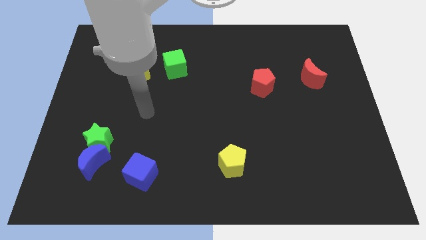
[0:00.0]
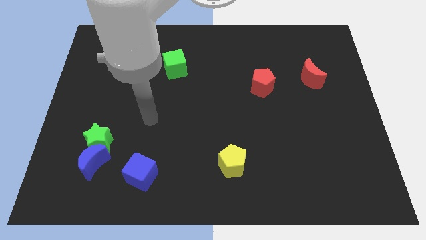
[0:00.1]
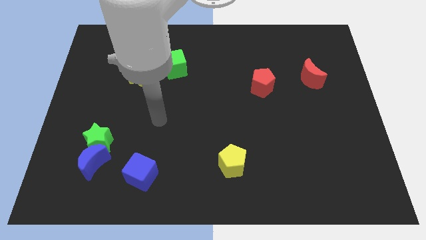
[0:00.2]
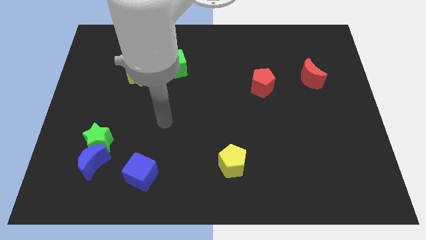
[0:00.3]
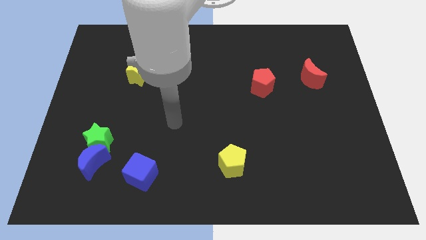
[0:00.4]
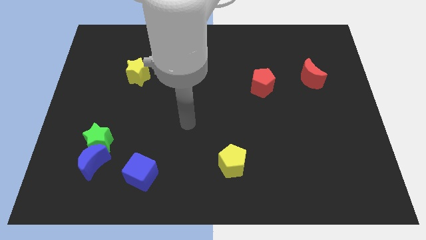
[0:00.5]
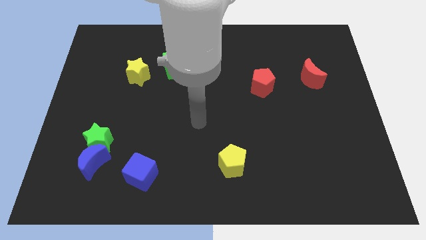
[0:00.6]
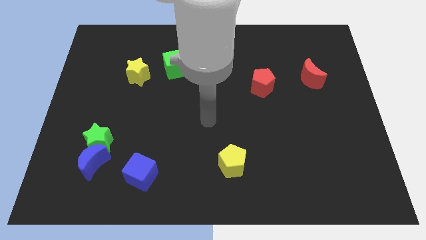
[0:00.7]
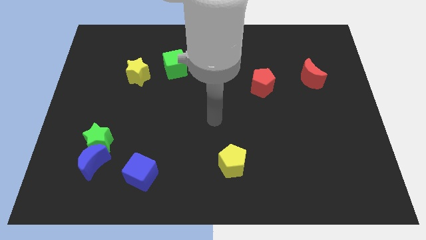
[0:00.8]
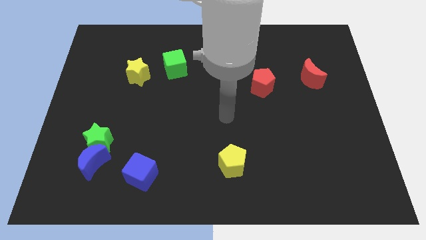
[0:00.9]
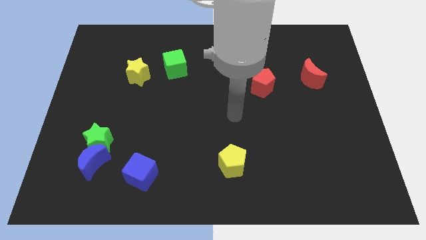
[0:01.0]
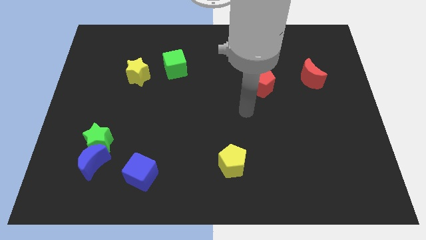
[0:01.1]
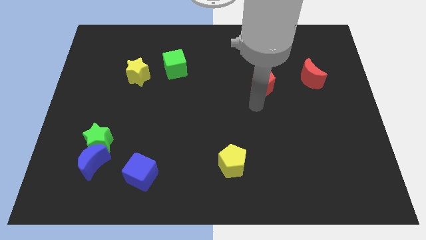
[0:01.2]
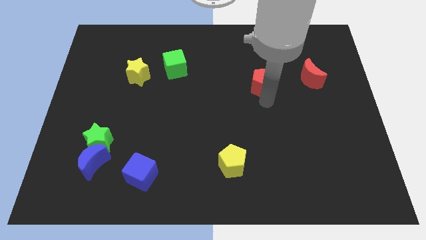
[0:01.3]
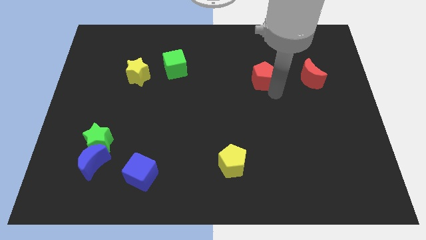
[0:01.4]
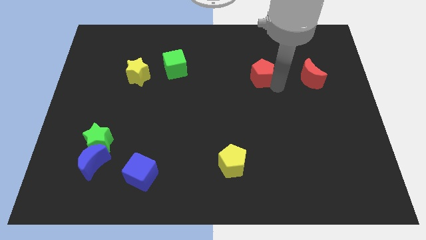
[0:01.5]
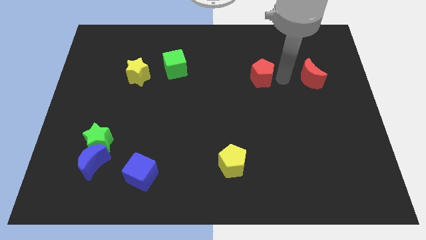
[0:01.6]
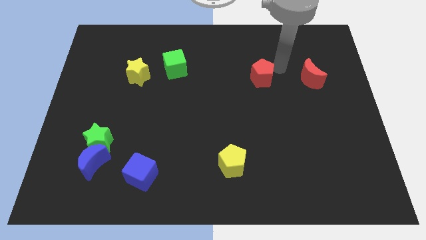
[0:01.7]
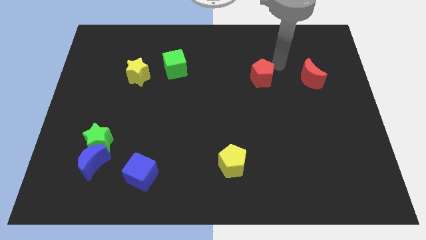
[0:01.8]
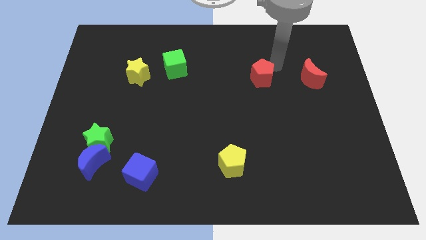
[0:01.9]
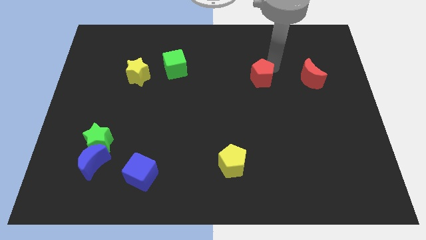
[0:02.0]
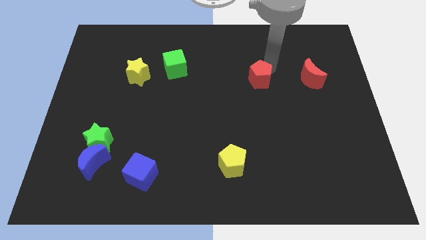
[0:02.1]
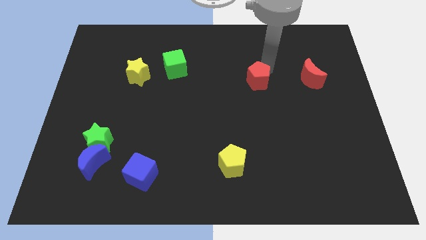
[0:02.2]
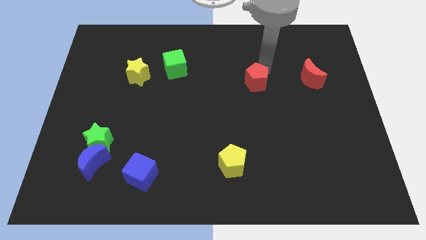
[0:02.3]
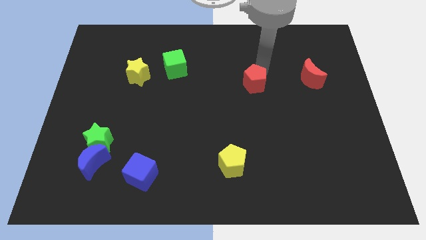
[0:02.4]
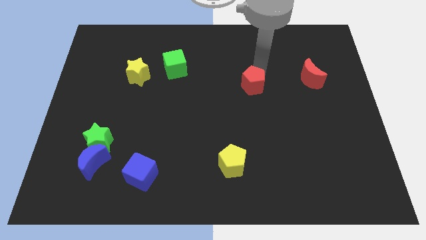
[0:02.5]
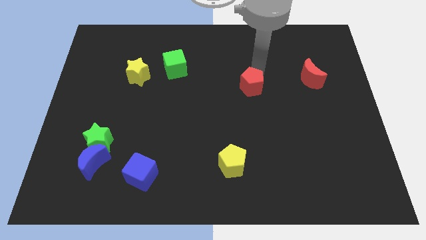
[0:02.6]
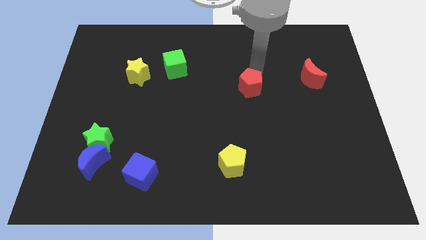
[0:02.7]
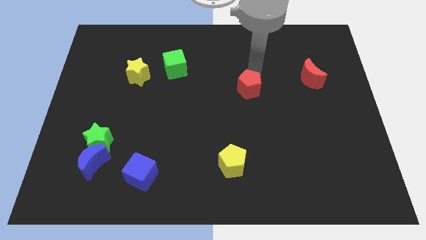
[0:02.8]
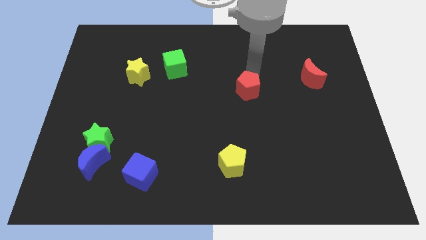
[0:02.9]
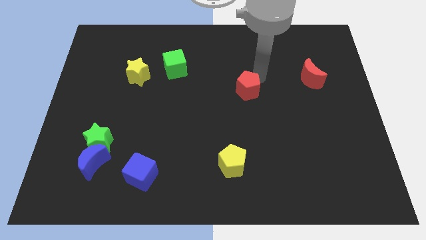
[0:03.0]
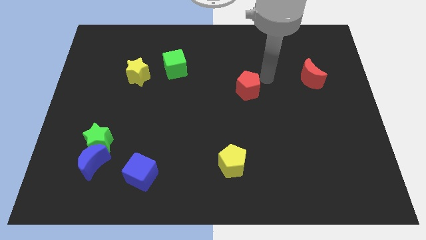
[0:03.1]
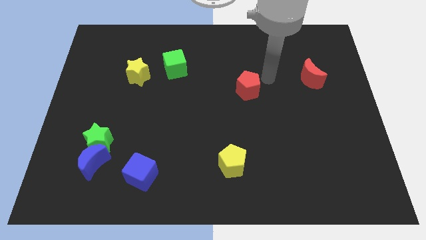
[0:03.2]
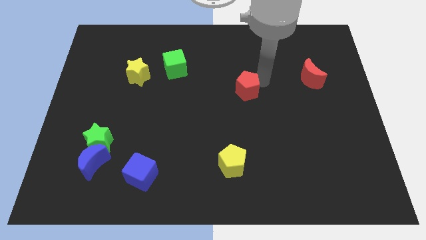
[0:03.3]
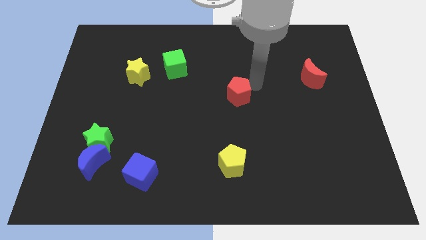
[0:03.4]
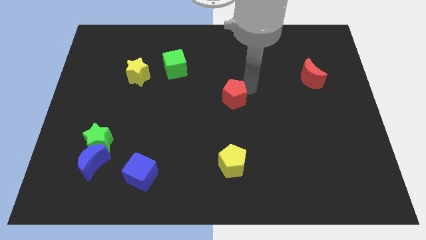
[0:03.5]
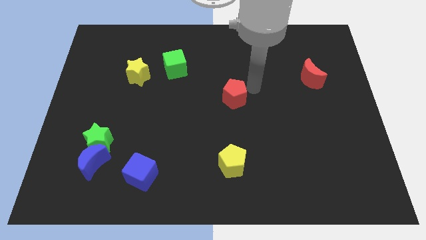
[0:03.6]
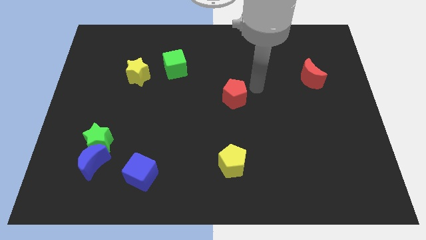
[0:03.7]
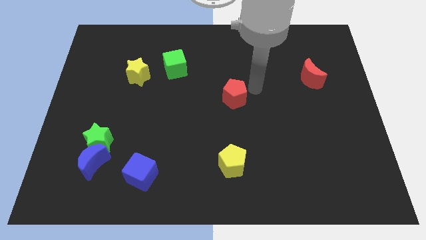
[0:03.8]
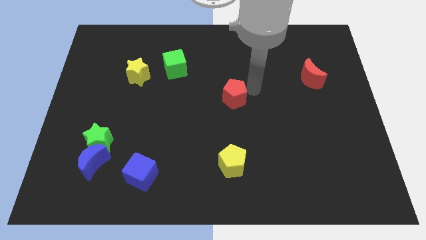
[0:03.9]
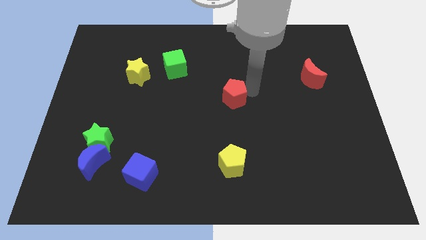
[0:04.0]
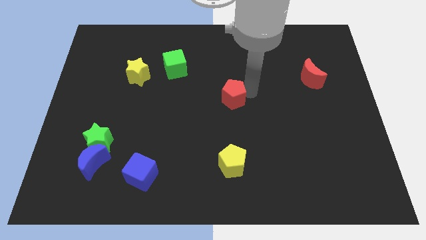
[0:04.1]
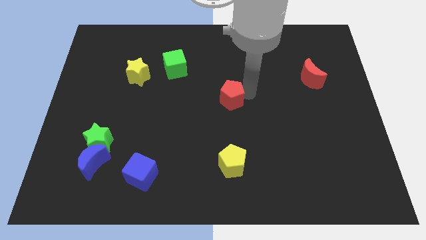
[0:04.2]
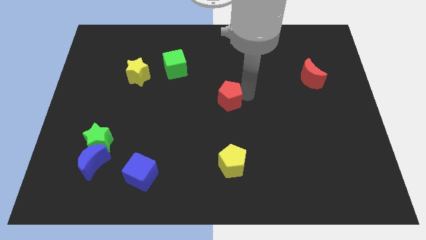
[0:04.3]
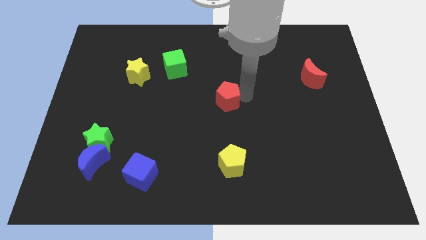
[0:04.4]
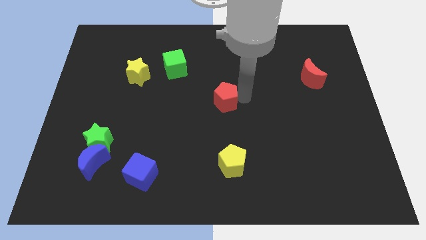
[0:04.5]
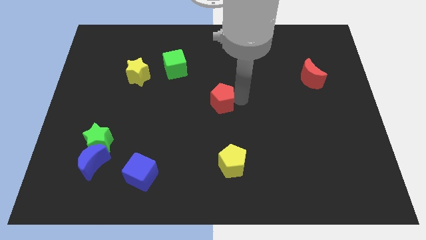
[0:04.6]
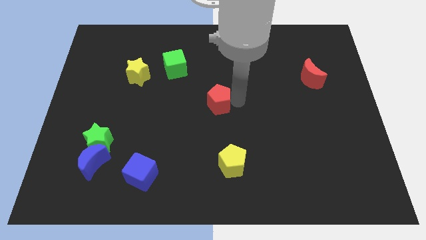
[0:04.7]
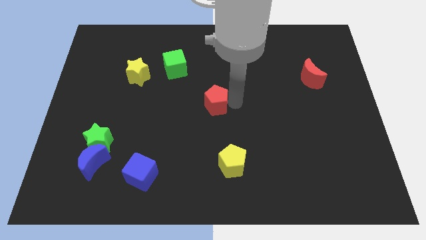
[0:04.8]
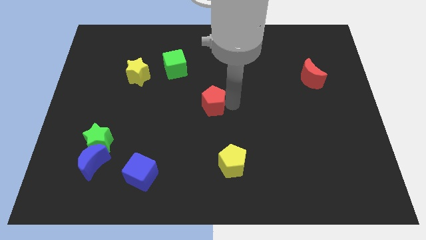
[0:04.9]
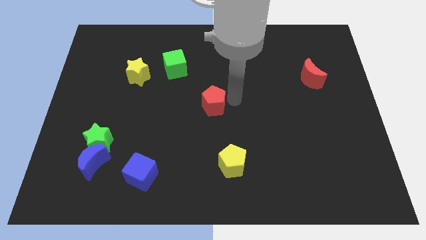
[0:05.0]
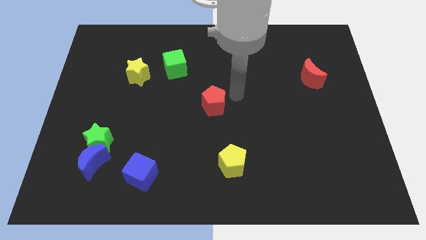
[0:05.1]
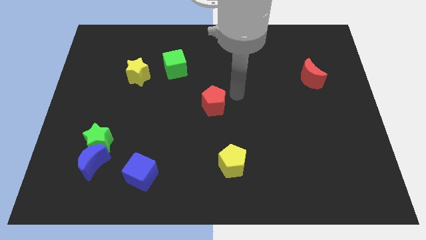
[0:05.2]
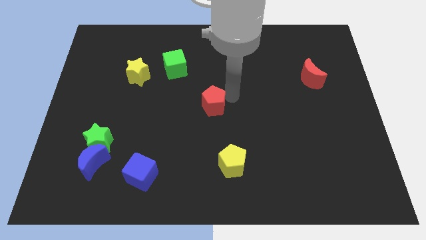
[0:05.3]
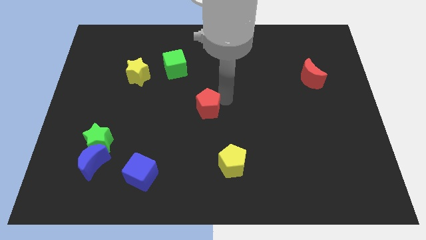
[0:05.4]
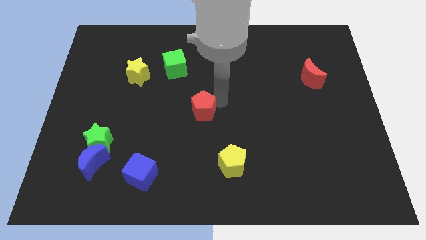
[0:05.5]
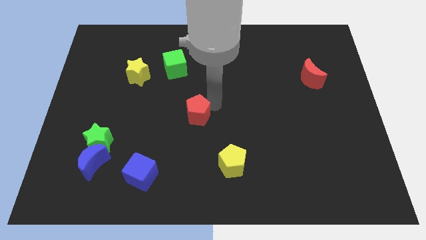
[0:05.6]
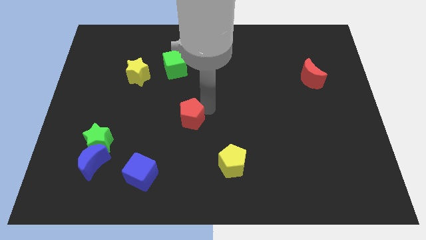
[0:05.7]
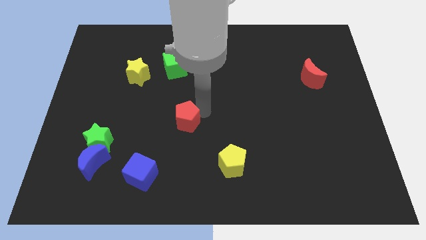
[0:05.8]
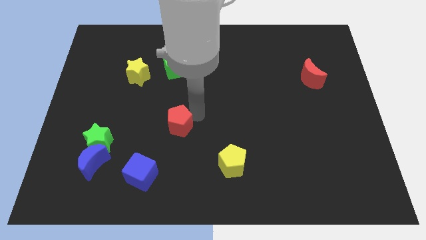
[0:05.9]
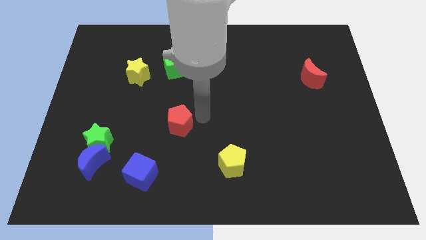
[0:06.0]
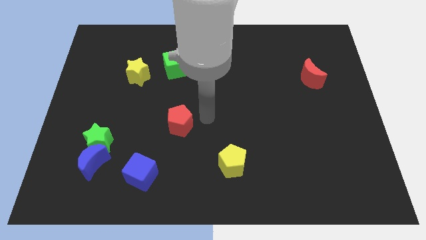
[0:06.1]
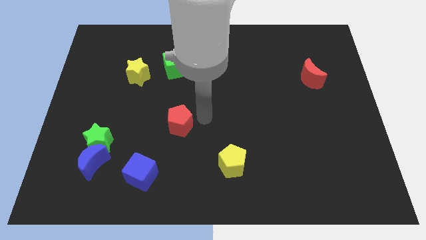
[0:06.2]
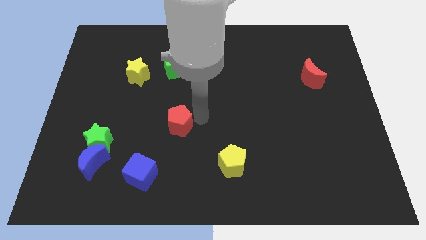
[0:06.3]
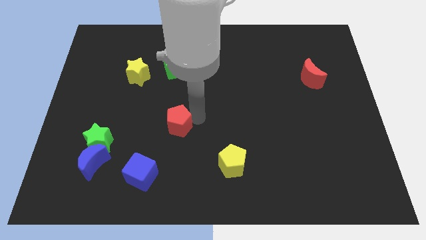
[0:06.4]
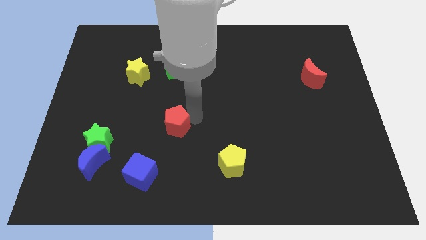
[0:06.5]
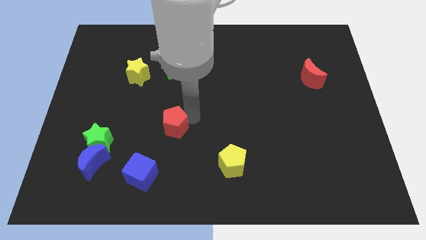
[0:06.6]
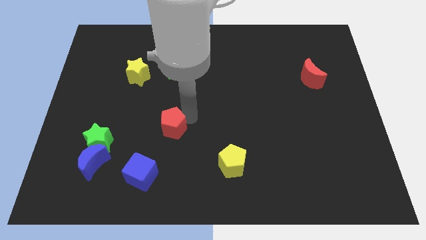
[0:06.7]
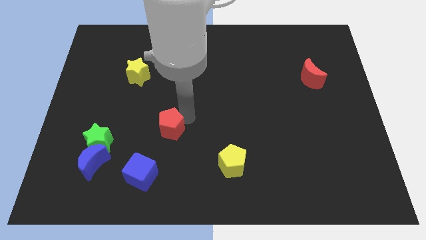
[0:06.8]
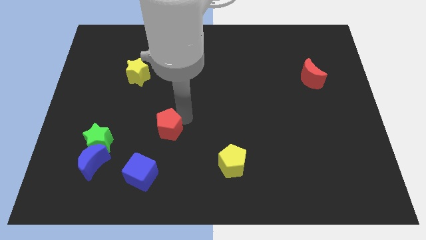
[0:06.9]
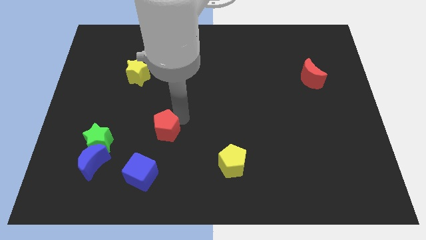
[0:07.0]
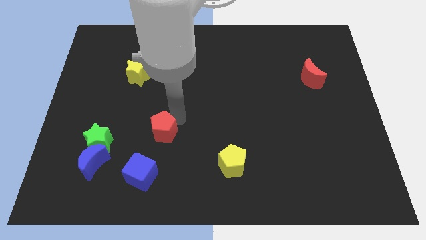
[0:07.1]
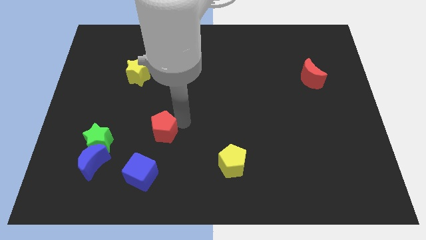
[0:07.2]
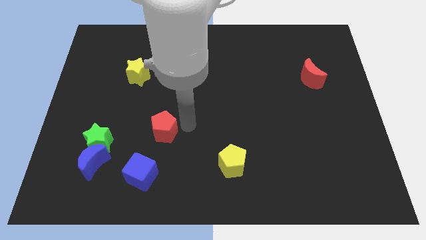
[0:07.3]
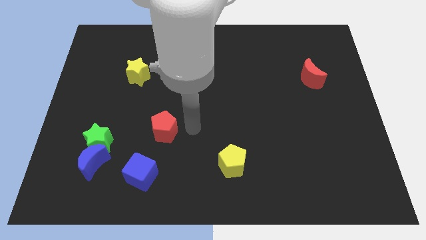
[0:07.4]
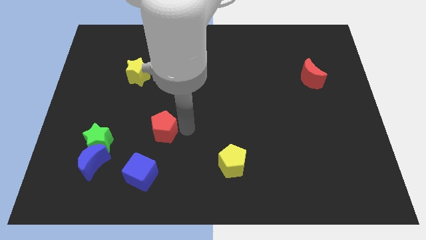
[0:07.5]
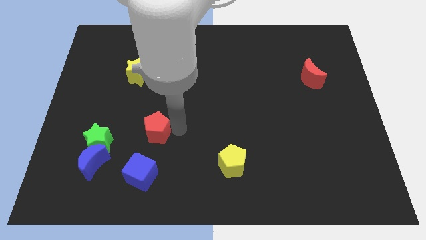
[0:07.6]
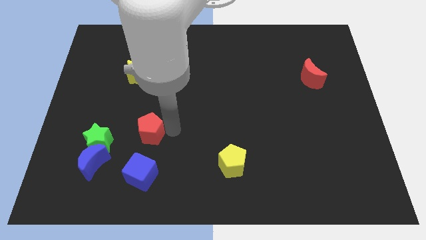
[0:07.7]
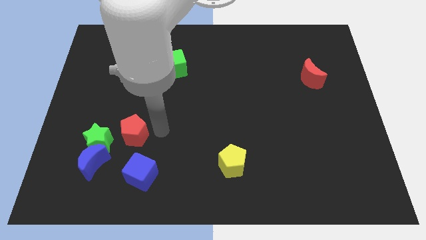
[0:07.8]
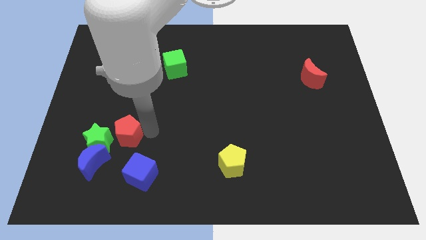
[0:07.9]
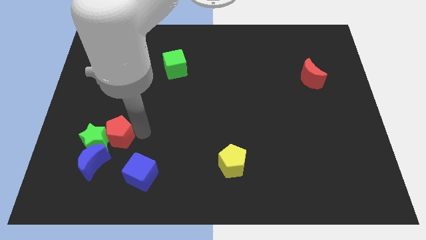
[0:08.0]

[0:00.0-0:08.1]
push the red pentagon close to the green star
